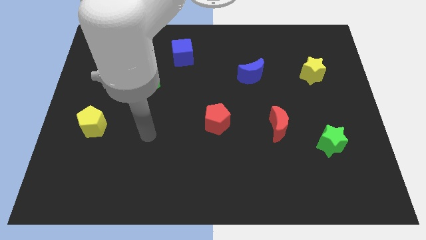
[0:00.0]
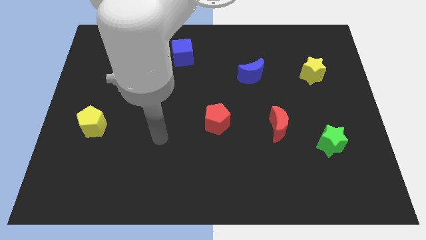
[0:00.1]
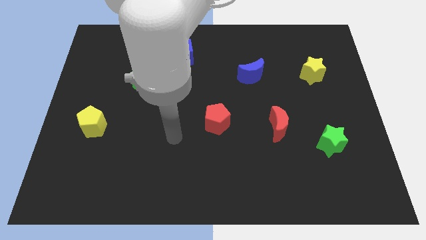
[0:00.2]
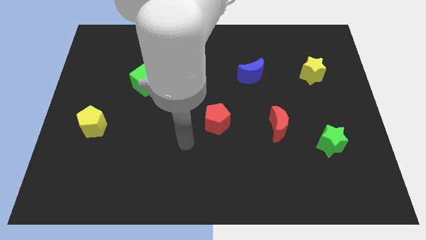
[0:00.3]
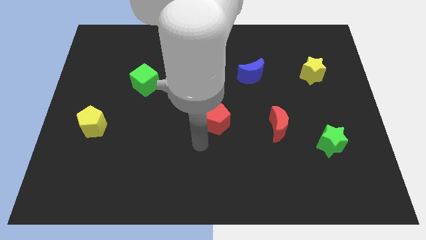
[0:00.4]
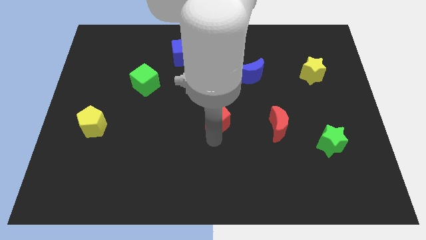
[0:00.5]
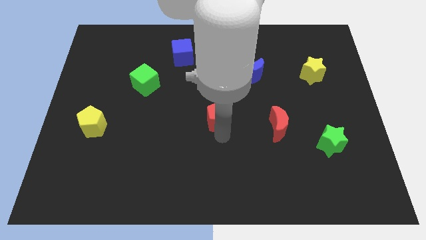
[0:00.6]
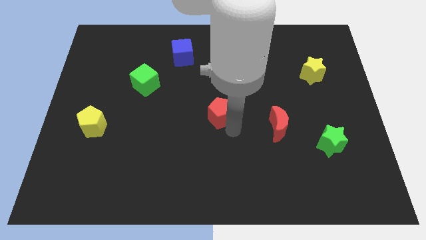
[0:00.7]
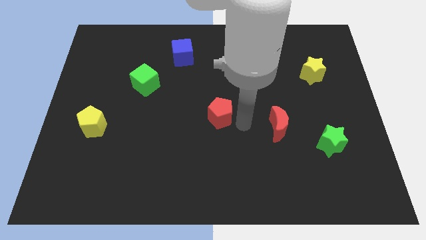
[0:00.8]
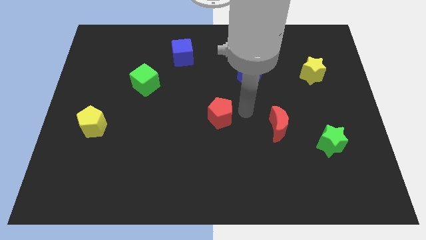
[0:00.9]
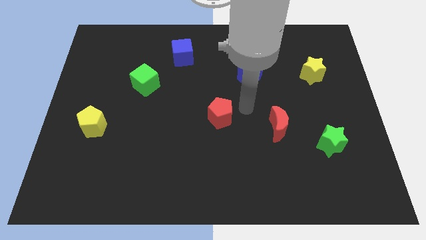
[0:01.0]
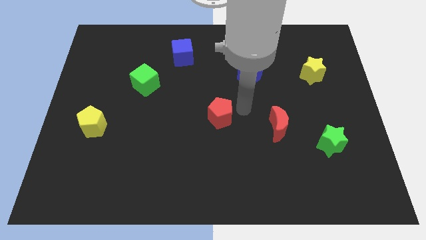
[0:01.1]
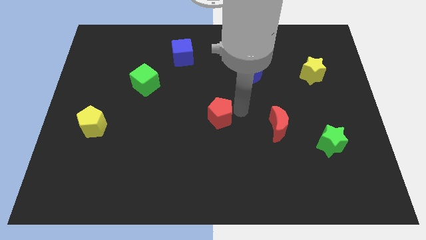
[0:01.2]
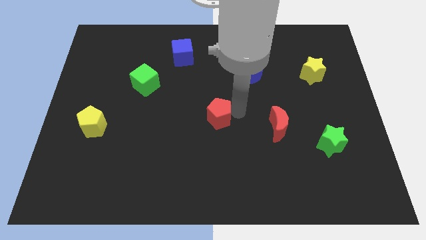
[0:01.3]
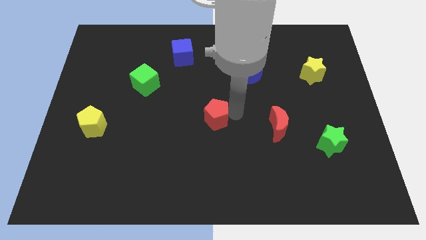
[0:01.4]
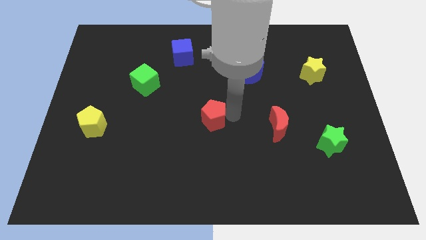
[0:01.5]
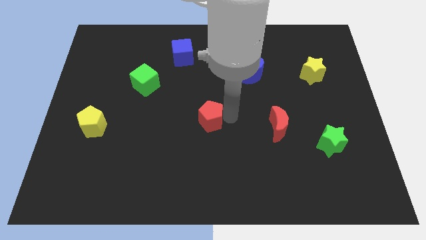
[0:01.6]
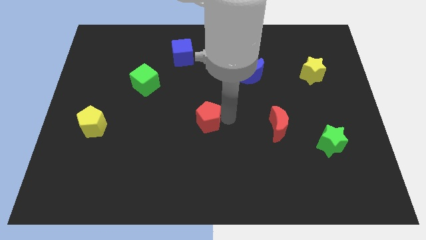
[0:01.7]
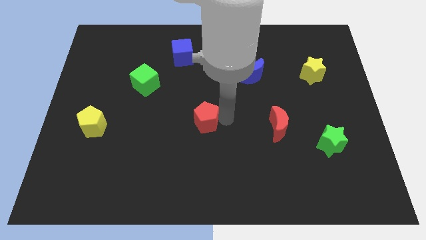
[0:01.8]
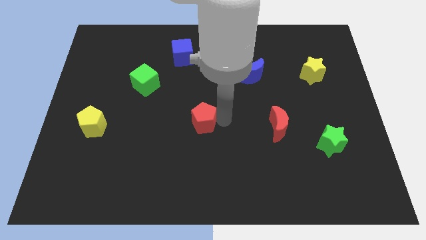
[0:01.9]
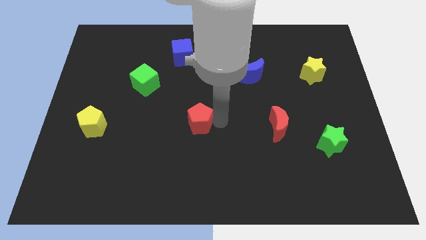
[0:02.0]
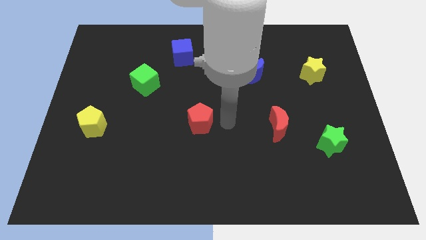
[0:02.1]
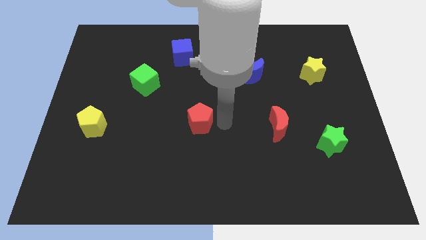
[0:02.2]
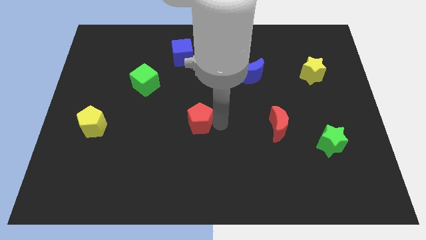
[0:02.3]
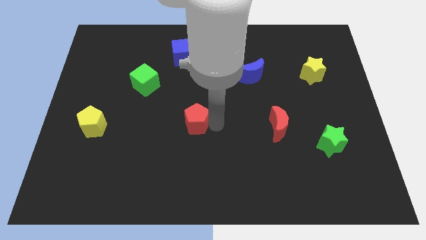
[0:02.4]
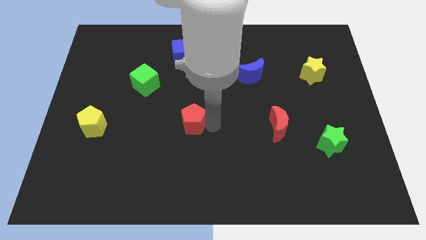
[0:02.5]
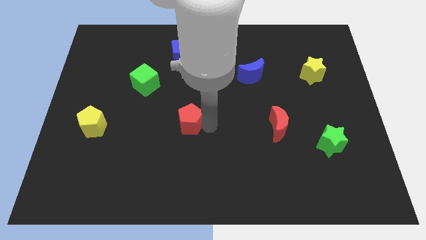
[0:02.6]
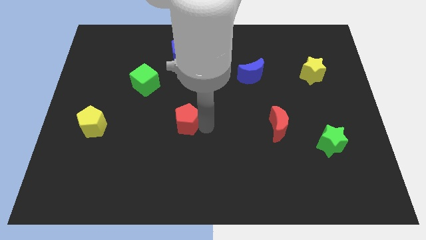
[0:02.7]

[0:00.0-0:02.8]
slightly slide the red pentagon left

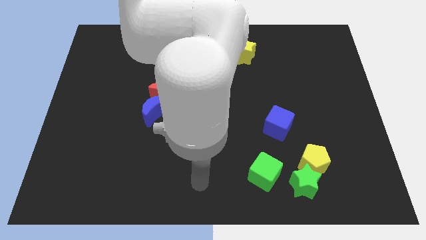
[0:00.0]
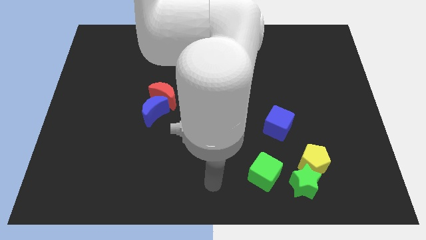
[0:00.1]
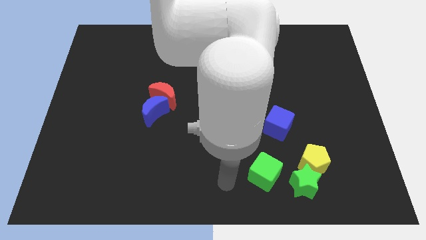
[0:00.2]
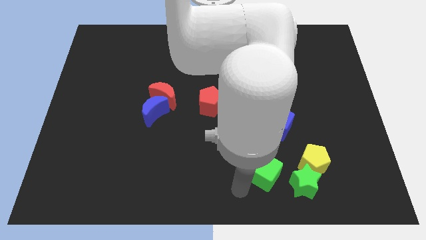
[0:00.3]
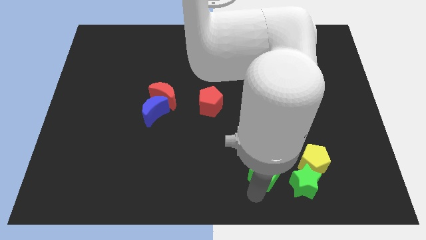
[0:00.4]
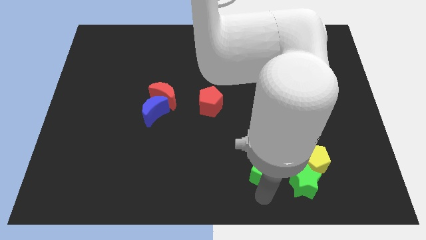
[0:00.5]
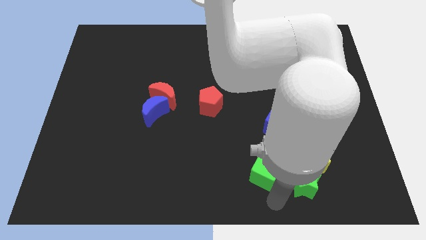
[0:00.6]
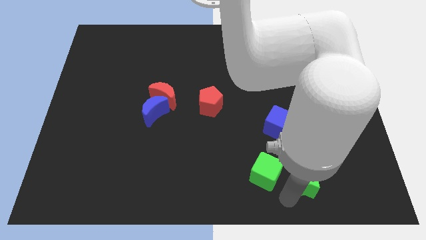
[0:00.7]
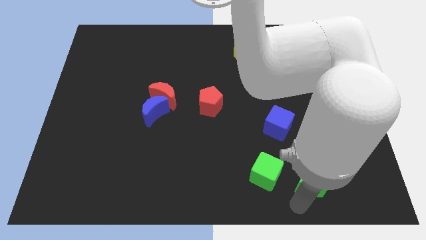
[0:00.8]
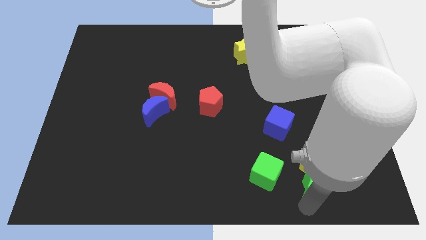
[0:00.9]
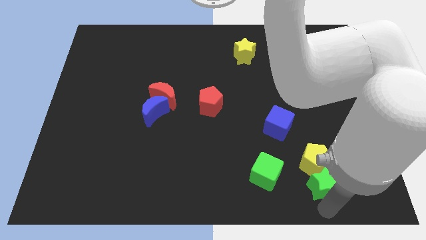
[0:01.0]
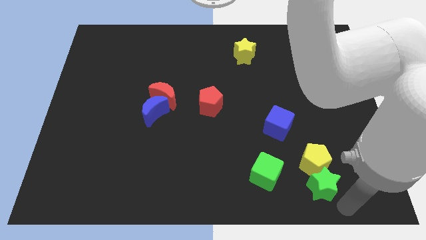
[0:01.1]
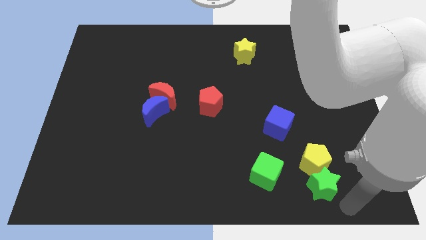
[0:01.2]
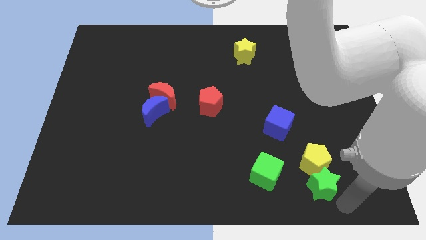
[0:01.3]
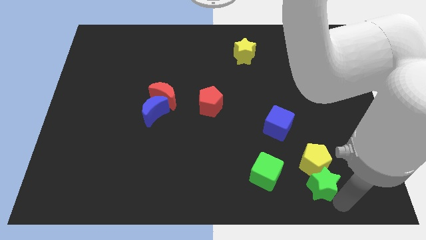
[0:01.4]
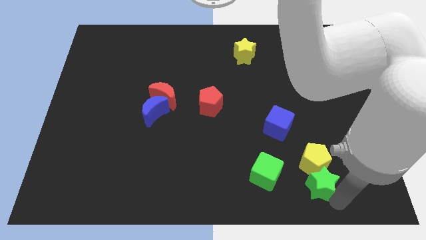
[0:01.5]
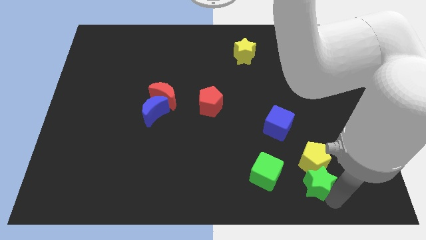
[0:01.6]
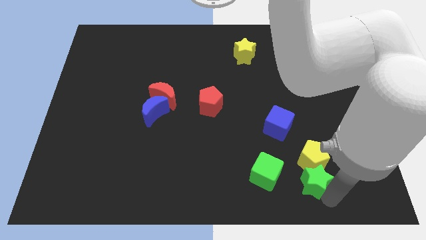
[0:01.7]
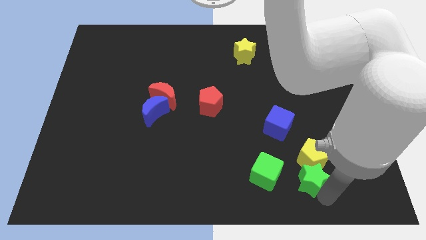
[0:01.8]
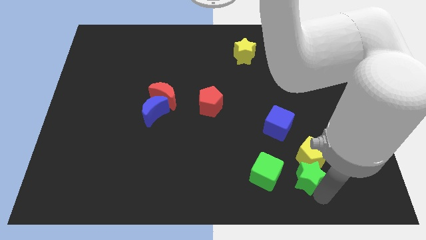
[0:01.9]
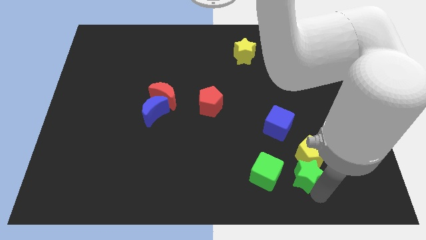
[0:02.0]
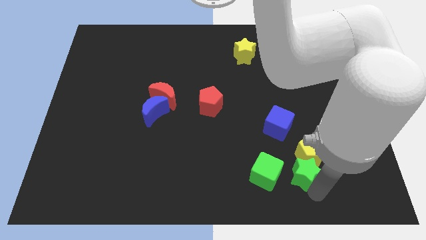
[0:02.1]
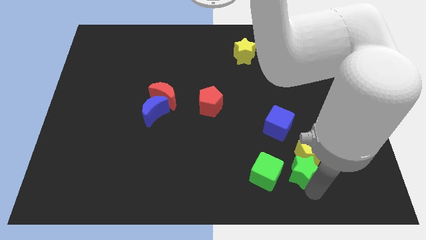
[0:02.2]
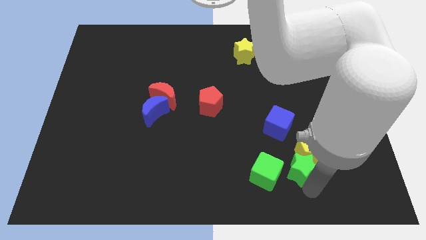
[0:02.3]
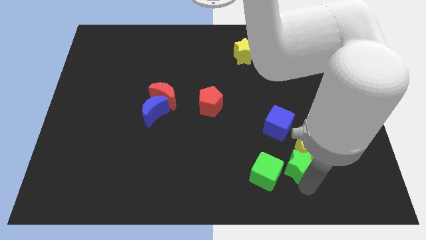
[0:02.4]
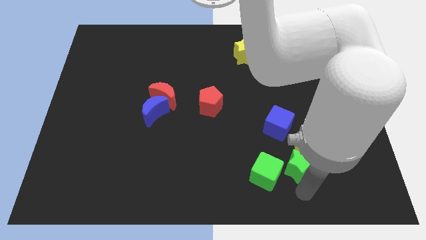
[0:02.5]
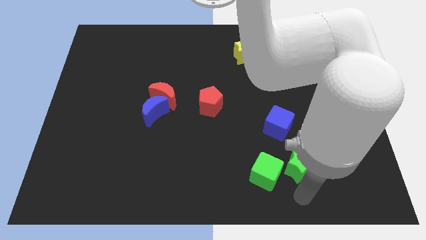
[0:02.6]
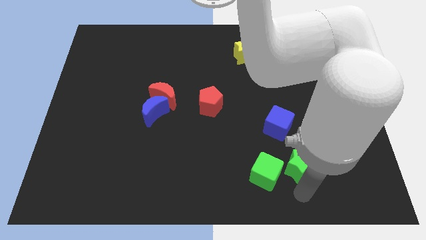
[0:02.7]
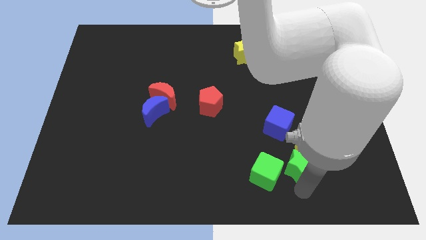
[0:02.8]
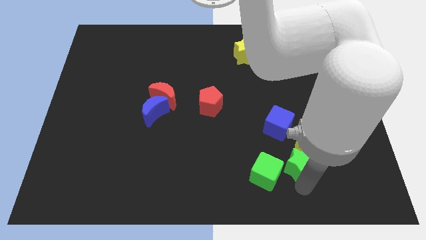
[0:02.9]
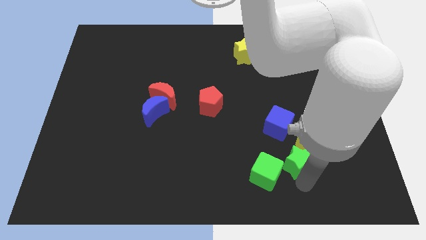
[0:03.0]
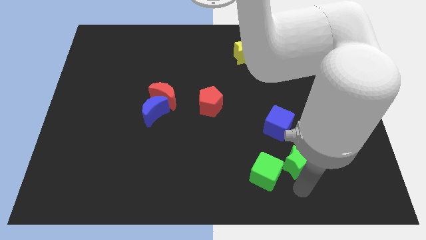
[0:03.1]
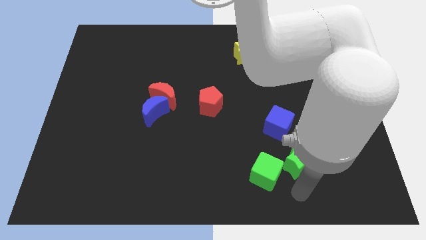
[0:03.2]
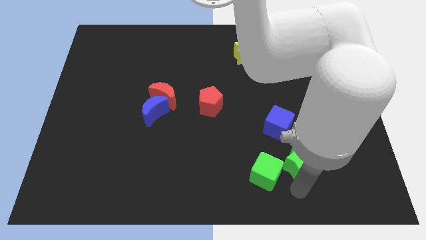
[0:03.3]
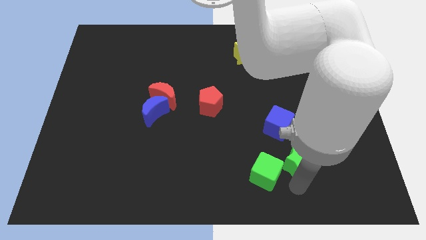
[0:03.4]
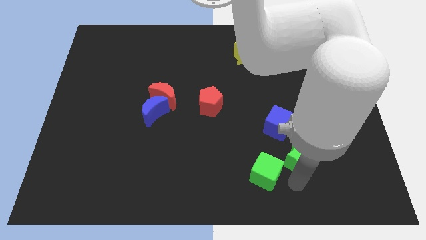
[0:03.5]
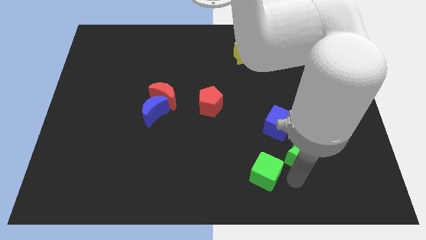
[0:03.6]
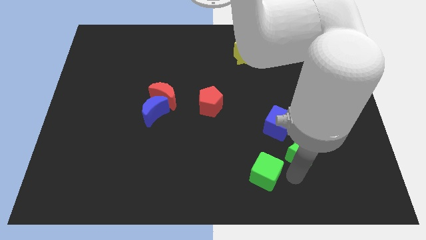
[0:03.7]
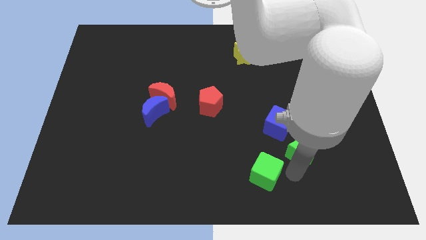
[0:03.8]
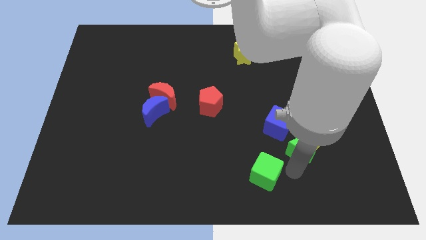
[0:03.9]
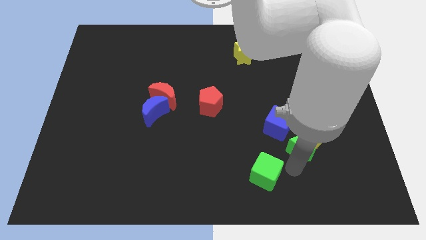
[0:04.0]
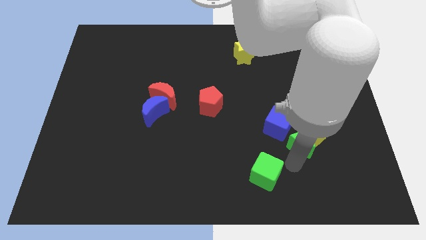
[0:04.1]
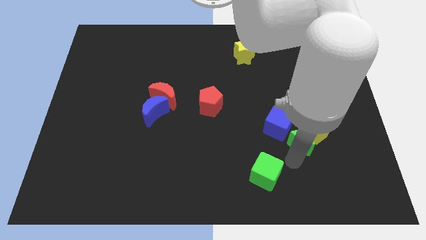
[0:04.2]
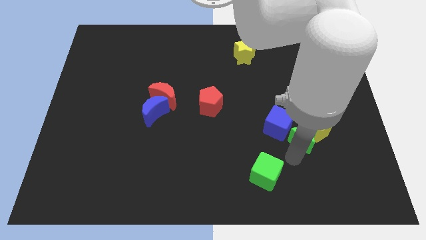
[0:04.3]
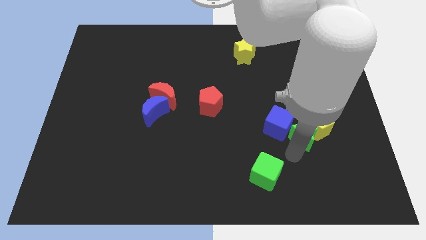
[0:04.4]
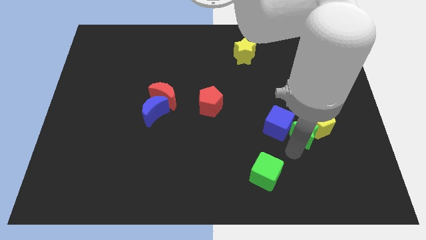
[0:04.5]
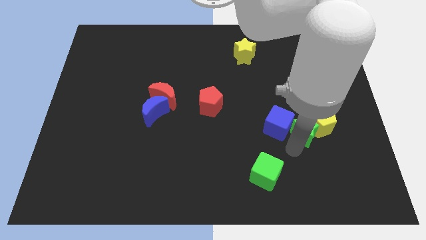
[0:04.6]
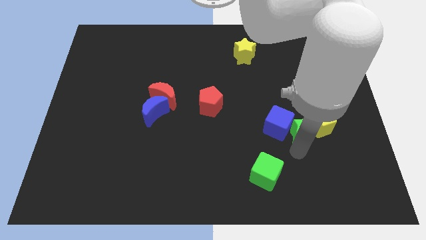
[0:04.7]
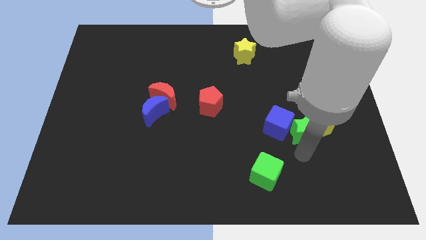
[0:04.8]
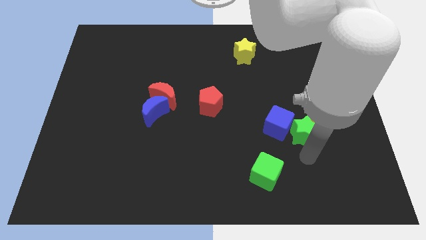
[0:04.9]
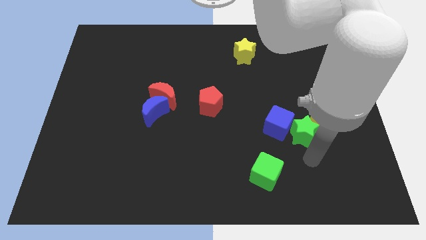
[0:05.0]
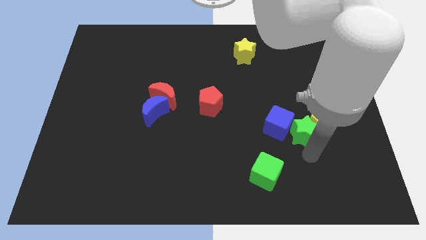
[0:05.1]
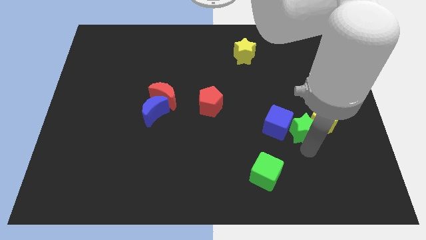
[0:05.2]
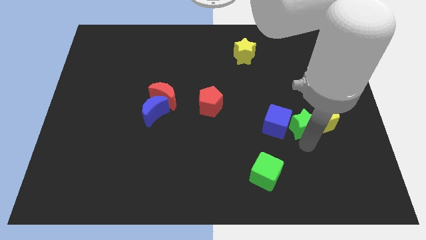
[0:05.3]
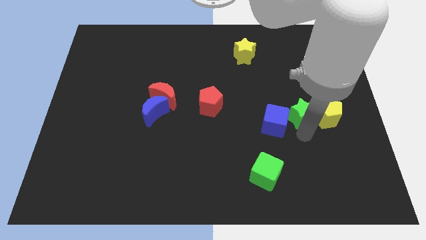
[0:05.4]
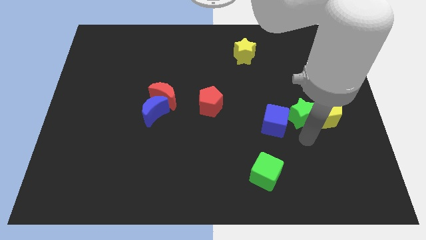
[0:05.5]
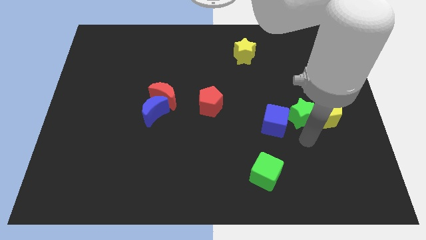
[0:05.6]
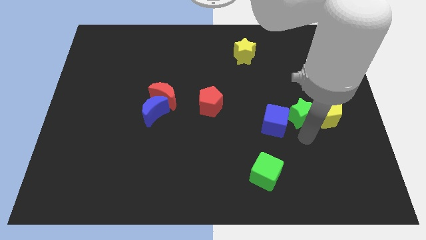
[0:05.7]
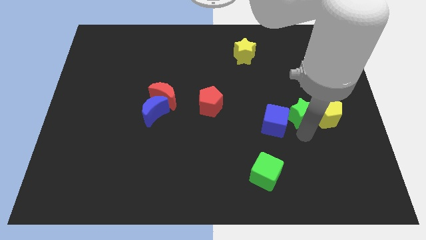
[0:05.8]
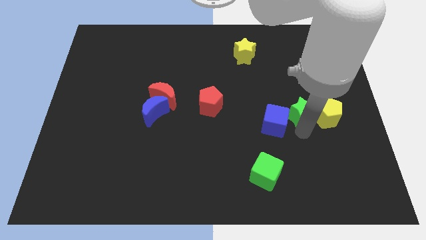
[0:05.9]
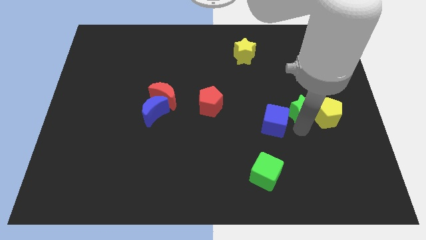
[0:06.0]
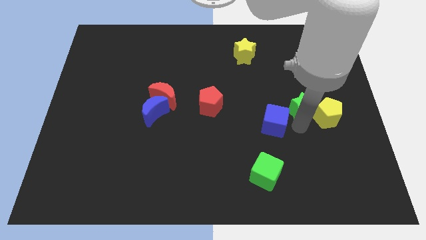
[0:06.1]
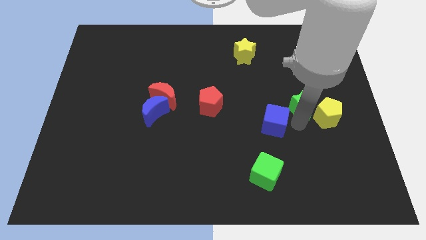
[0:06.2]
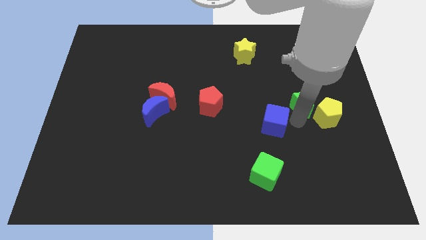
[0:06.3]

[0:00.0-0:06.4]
push the green star upwards
